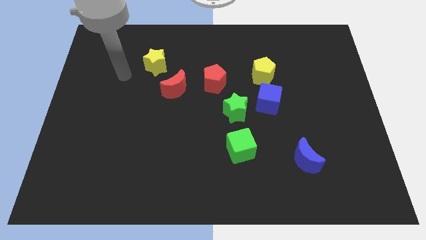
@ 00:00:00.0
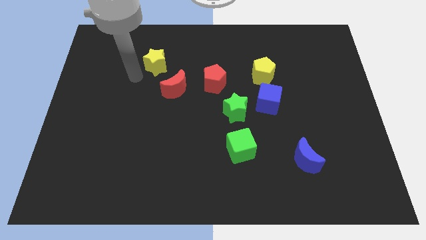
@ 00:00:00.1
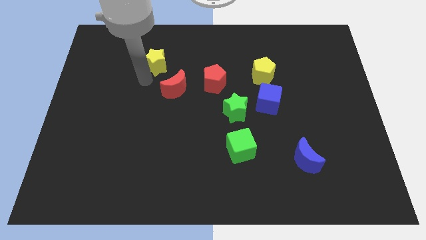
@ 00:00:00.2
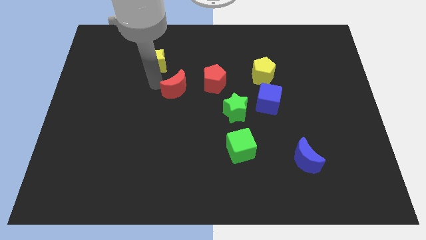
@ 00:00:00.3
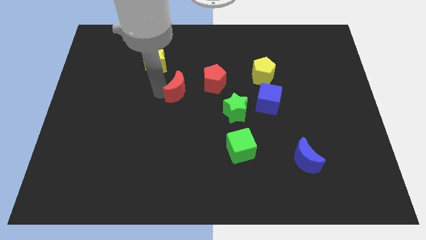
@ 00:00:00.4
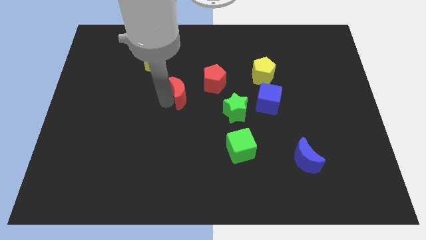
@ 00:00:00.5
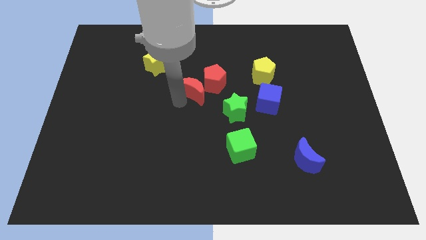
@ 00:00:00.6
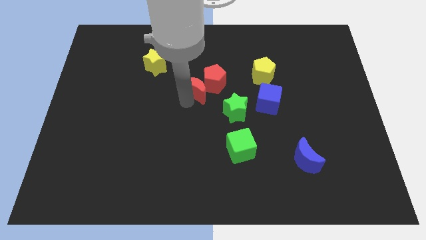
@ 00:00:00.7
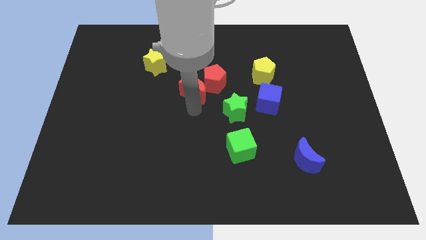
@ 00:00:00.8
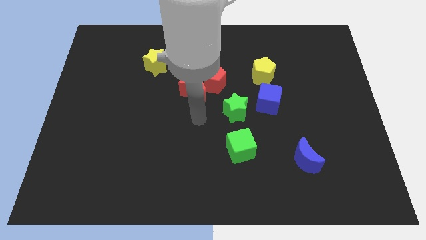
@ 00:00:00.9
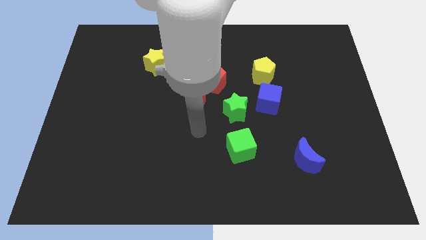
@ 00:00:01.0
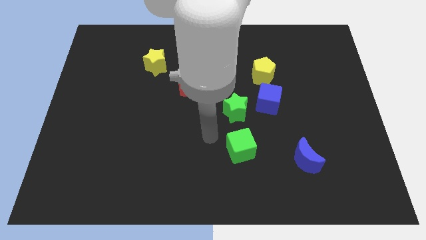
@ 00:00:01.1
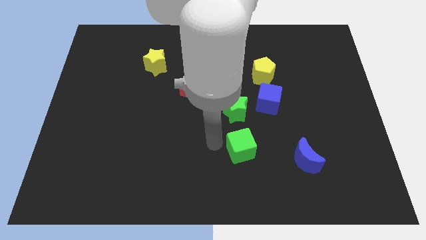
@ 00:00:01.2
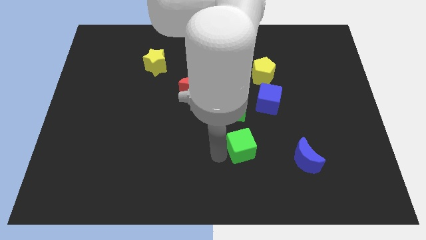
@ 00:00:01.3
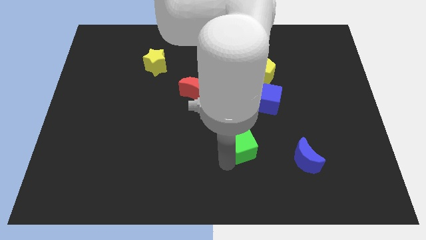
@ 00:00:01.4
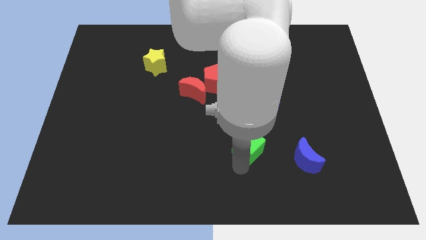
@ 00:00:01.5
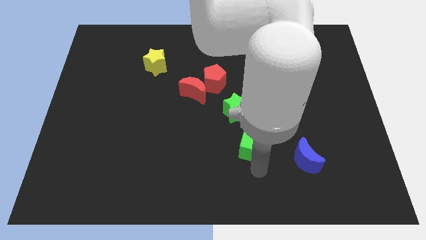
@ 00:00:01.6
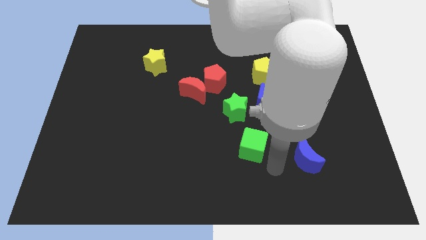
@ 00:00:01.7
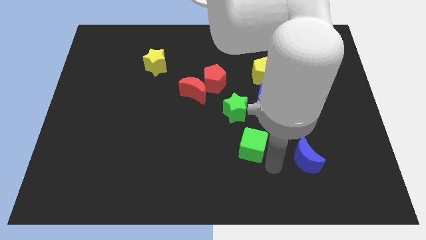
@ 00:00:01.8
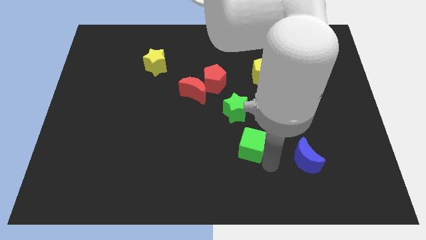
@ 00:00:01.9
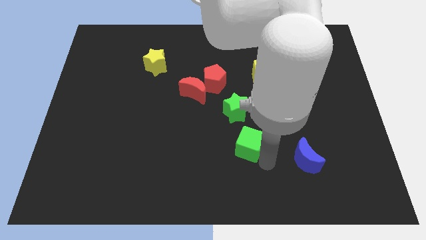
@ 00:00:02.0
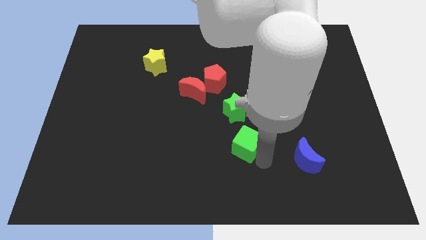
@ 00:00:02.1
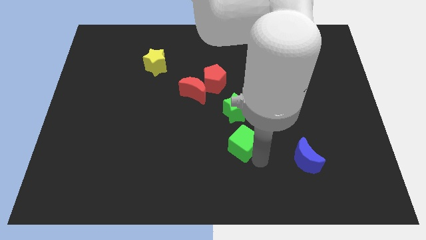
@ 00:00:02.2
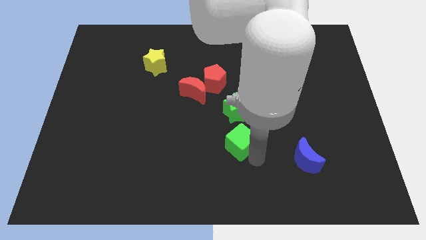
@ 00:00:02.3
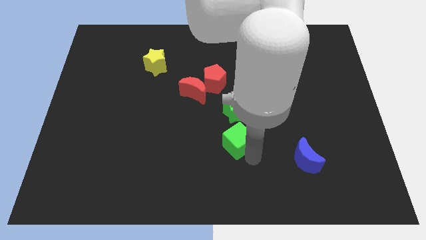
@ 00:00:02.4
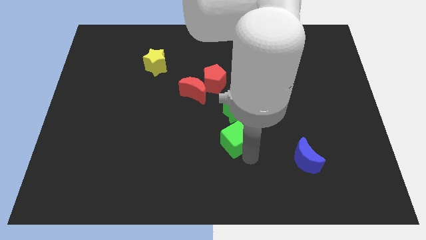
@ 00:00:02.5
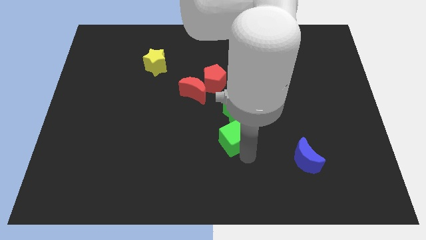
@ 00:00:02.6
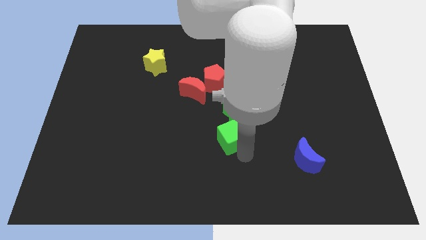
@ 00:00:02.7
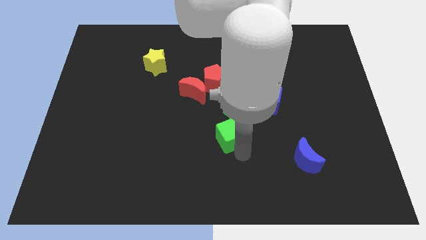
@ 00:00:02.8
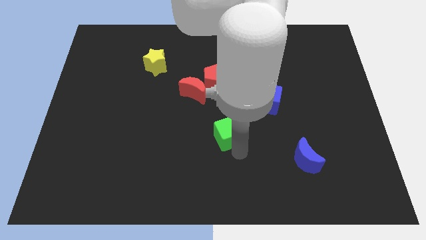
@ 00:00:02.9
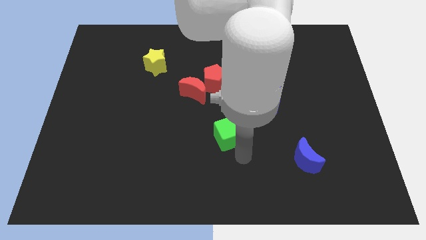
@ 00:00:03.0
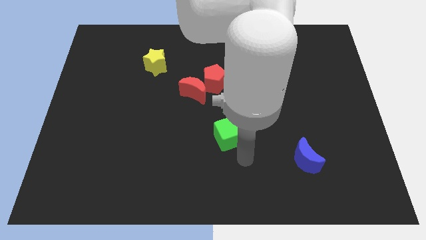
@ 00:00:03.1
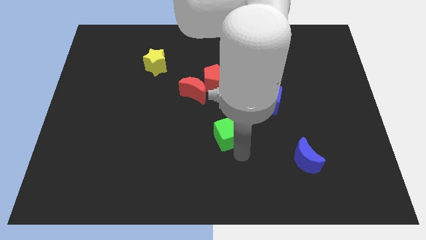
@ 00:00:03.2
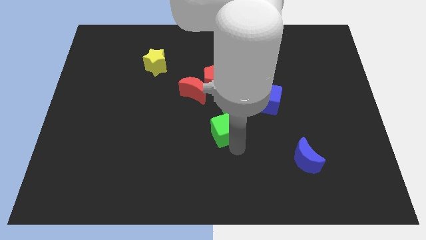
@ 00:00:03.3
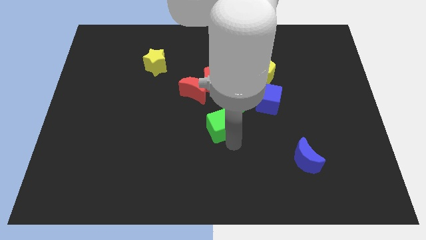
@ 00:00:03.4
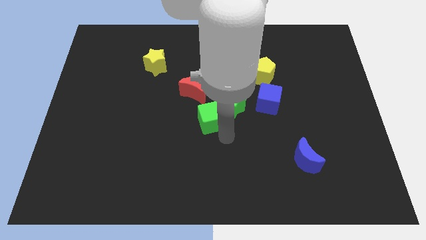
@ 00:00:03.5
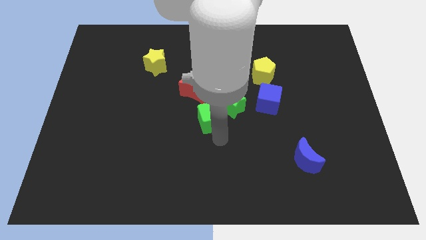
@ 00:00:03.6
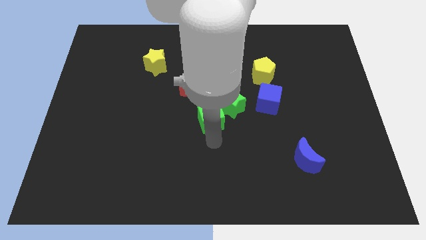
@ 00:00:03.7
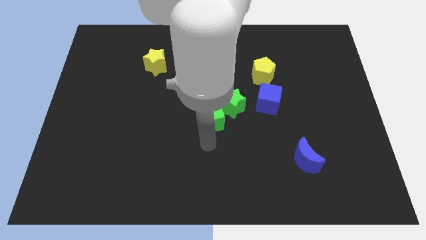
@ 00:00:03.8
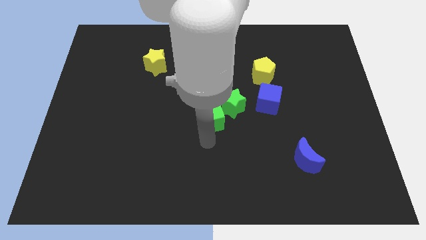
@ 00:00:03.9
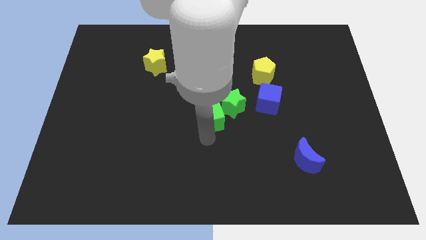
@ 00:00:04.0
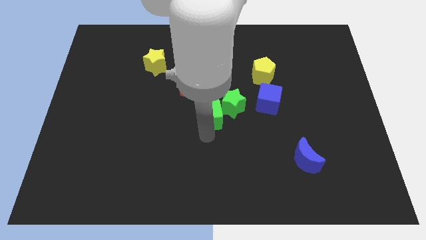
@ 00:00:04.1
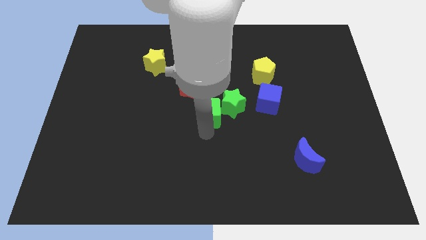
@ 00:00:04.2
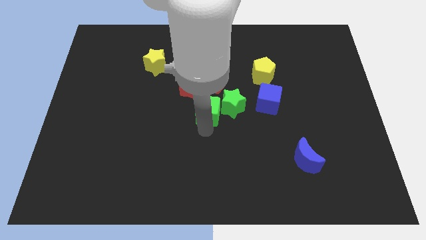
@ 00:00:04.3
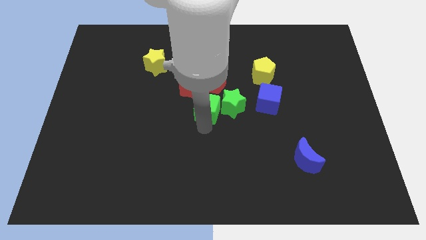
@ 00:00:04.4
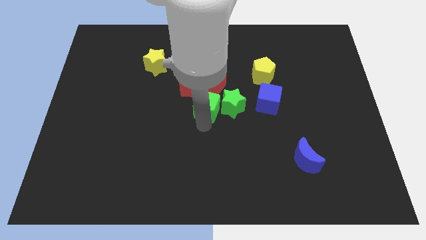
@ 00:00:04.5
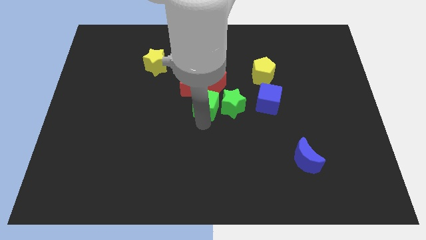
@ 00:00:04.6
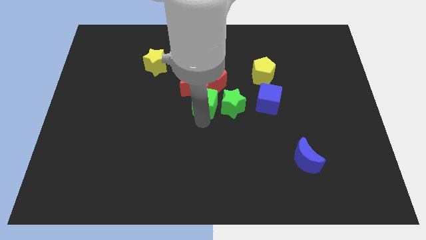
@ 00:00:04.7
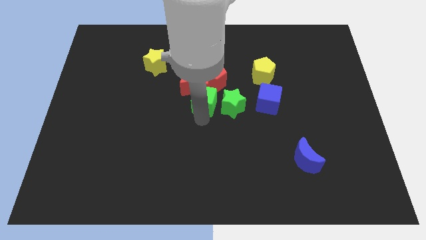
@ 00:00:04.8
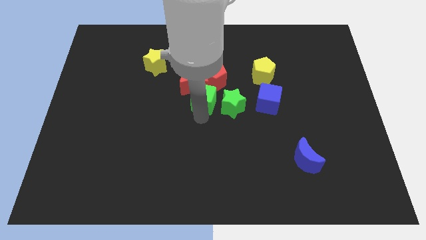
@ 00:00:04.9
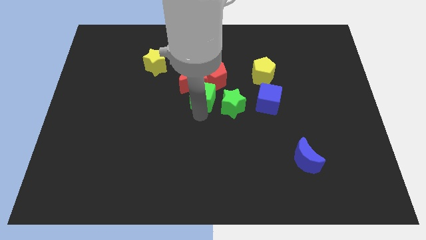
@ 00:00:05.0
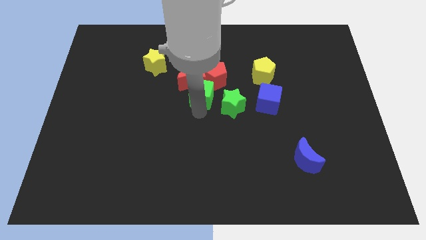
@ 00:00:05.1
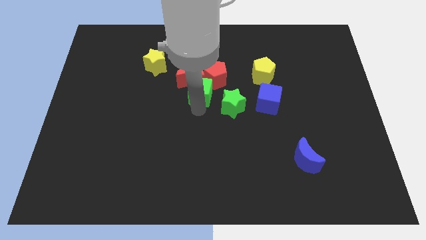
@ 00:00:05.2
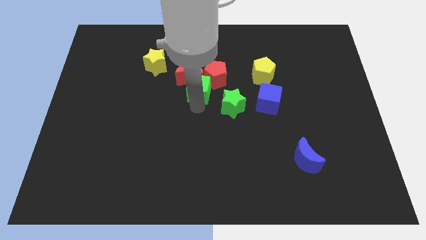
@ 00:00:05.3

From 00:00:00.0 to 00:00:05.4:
move the green cube next to the red pentagon

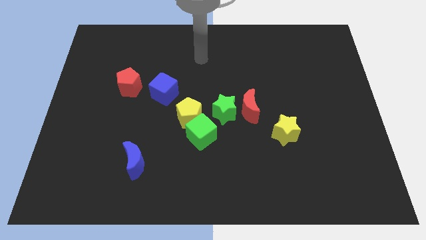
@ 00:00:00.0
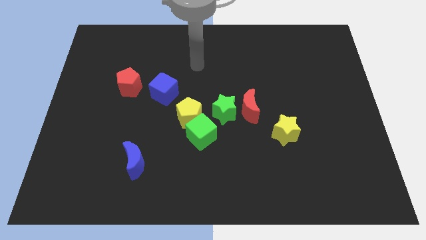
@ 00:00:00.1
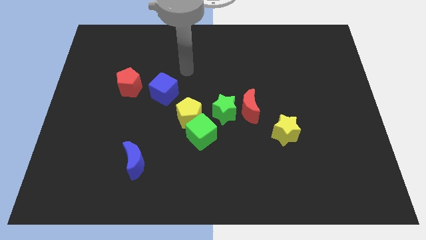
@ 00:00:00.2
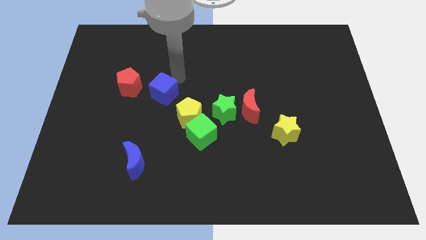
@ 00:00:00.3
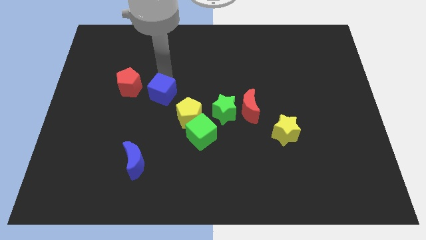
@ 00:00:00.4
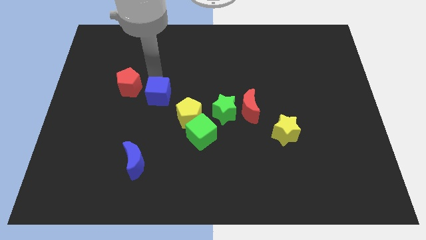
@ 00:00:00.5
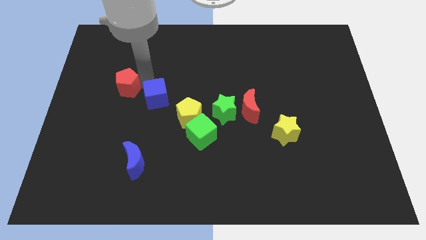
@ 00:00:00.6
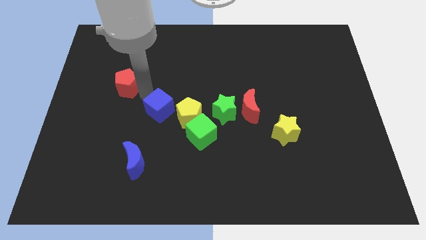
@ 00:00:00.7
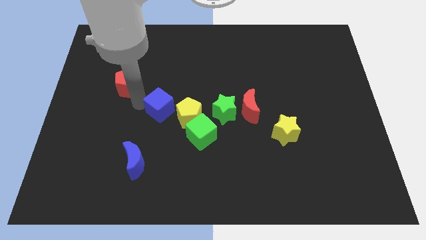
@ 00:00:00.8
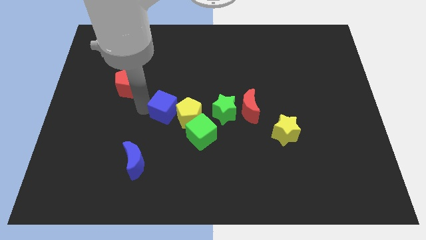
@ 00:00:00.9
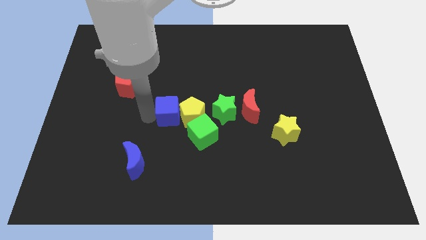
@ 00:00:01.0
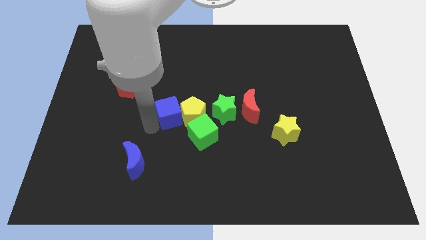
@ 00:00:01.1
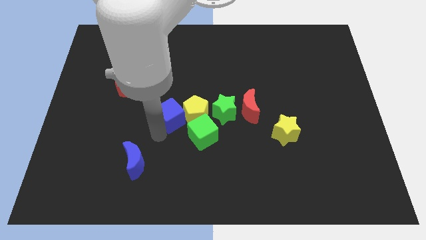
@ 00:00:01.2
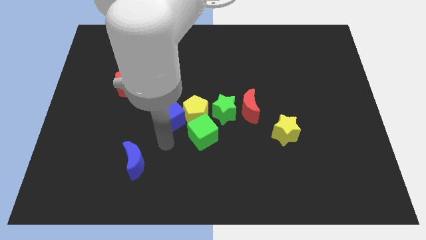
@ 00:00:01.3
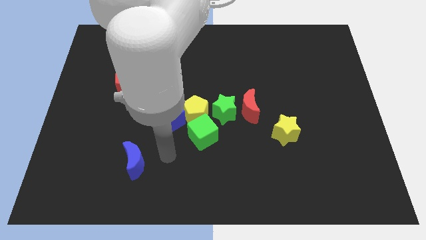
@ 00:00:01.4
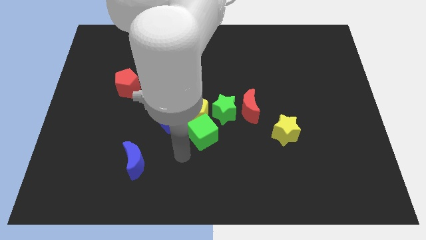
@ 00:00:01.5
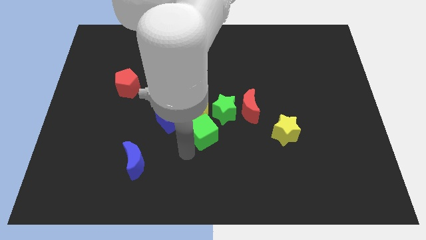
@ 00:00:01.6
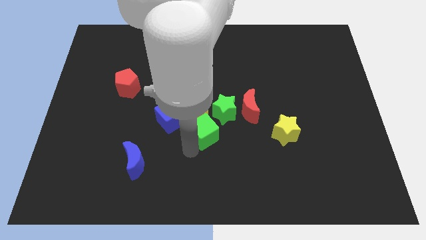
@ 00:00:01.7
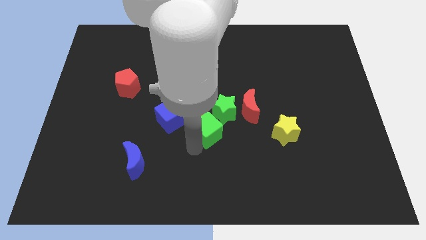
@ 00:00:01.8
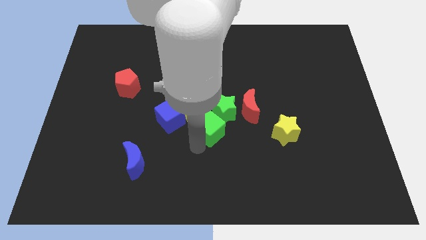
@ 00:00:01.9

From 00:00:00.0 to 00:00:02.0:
push the green cube close to the green star
